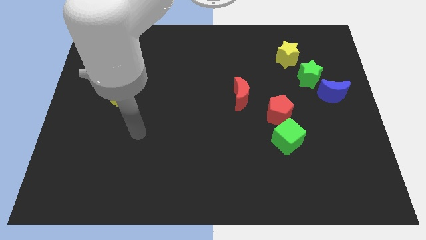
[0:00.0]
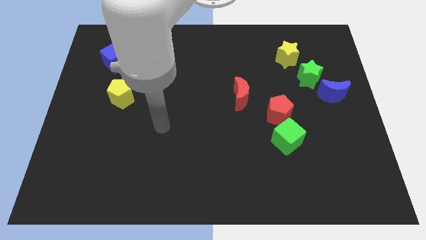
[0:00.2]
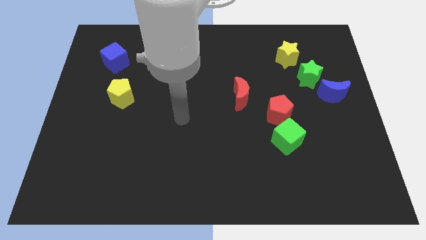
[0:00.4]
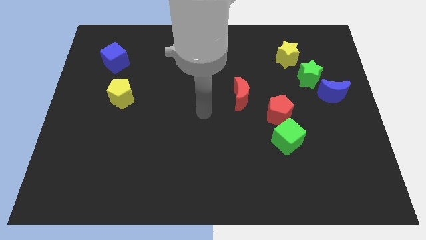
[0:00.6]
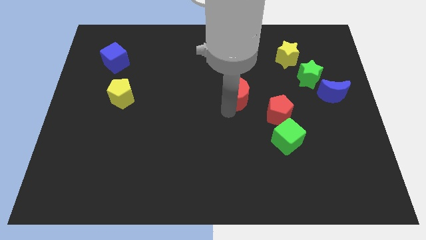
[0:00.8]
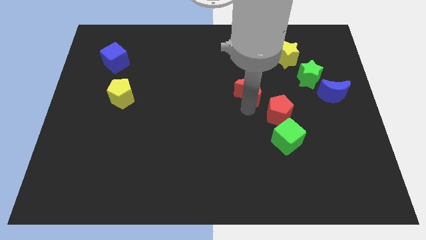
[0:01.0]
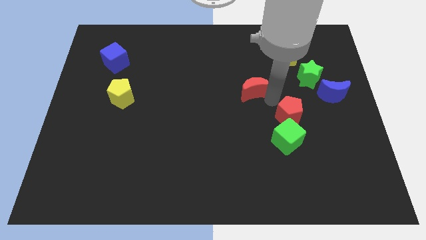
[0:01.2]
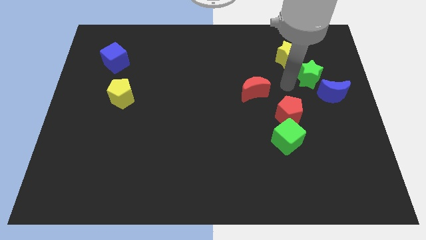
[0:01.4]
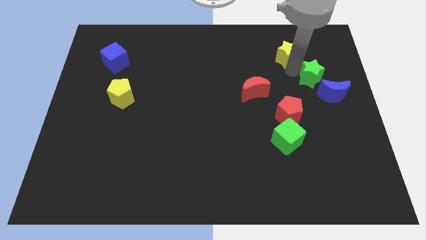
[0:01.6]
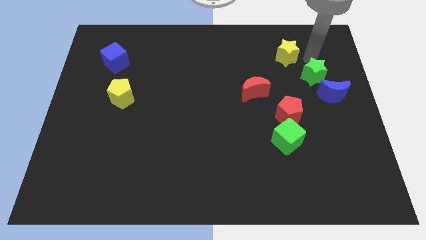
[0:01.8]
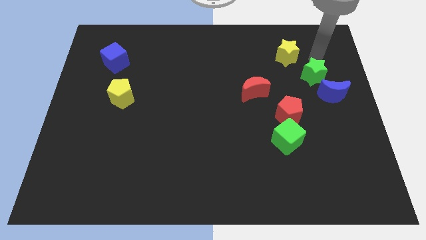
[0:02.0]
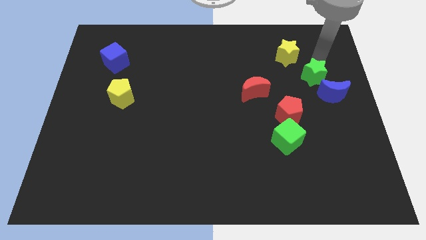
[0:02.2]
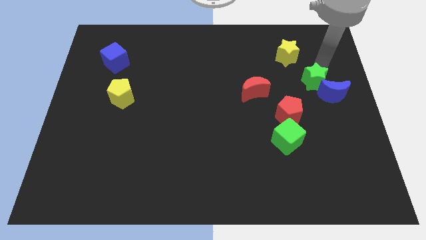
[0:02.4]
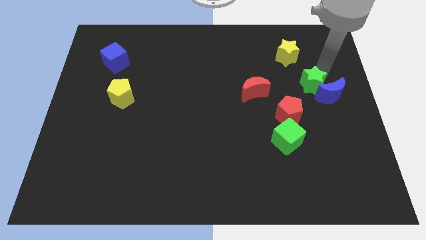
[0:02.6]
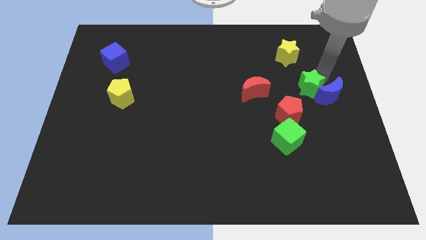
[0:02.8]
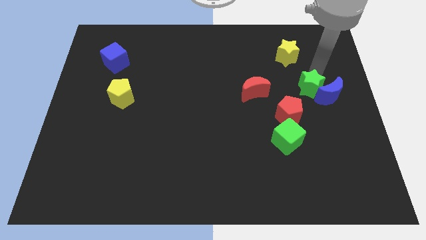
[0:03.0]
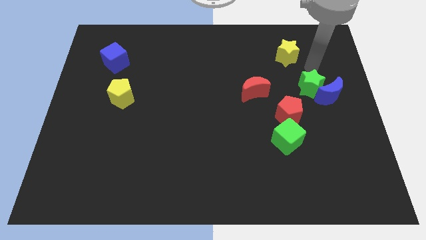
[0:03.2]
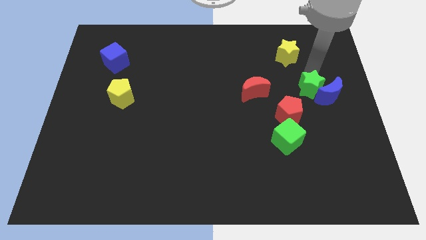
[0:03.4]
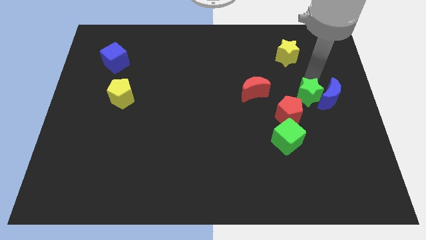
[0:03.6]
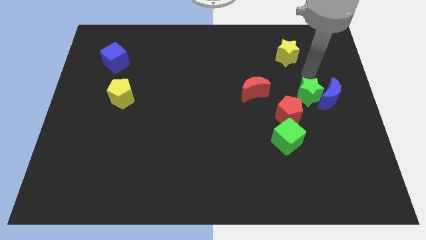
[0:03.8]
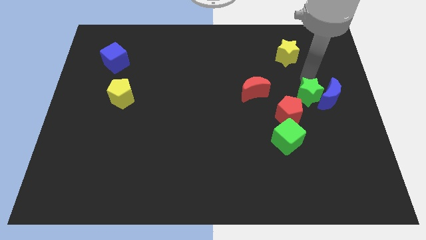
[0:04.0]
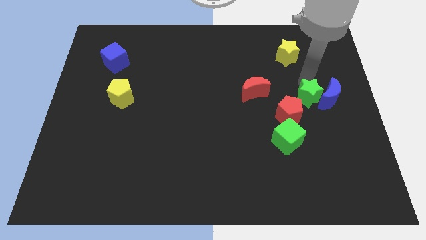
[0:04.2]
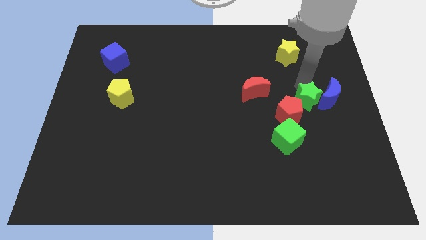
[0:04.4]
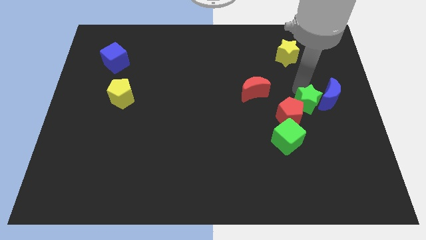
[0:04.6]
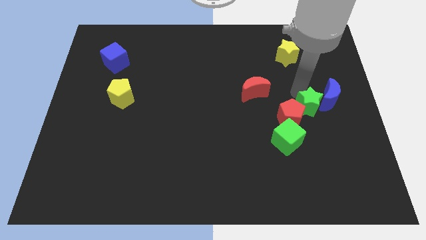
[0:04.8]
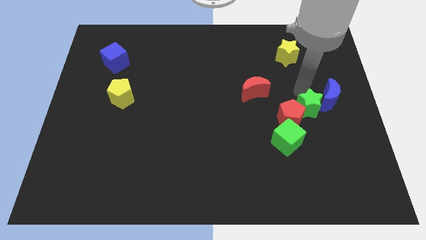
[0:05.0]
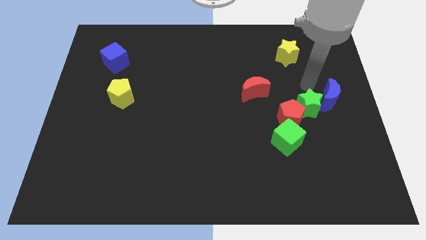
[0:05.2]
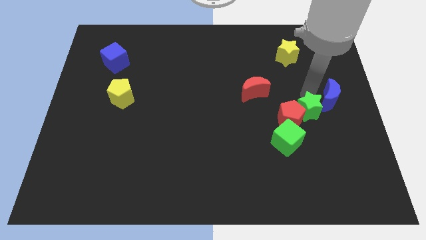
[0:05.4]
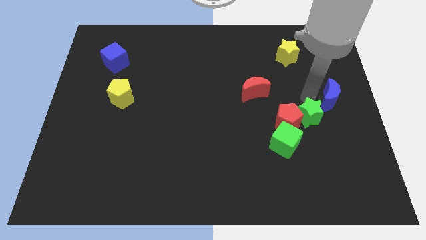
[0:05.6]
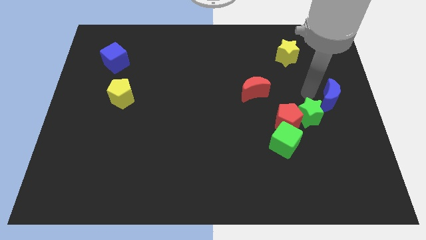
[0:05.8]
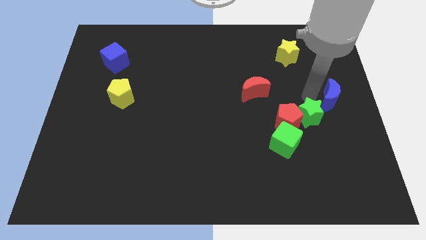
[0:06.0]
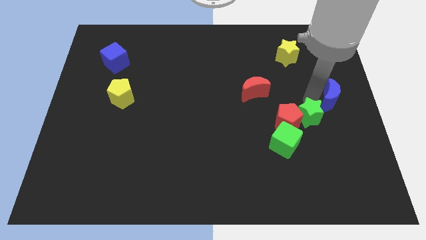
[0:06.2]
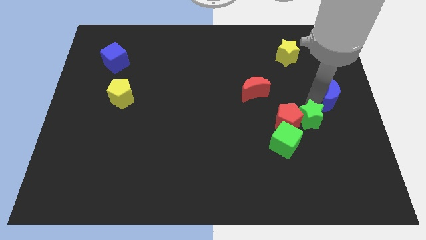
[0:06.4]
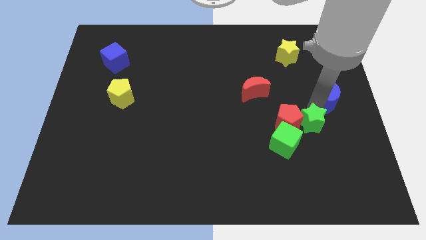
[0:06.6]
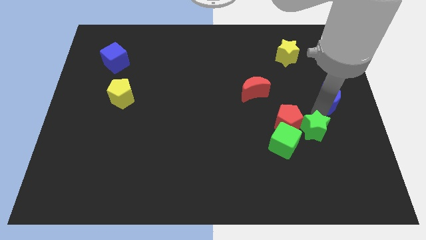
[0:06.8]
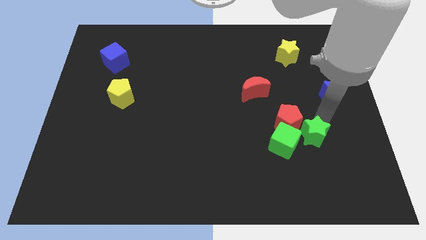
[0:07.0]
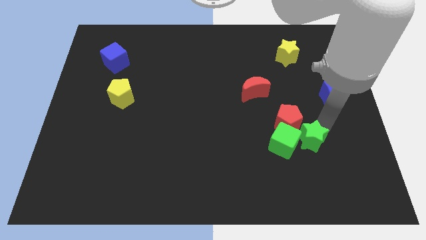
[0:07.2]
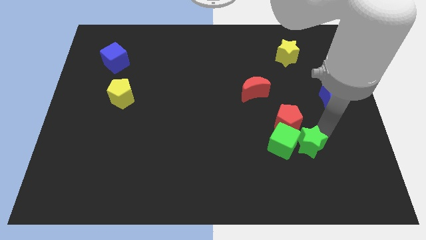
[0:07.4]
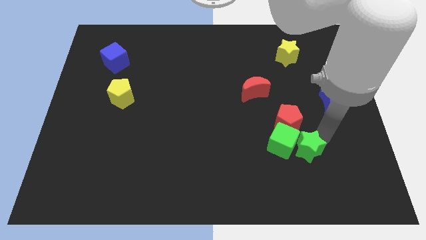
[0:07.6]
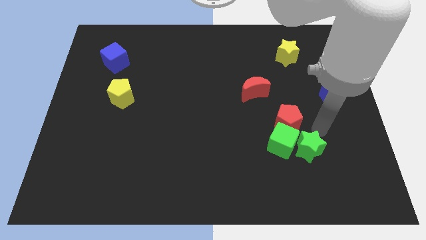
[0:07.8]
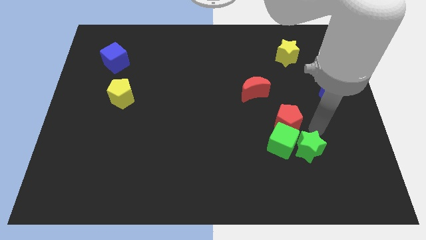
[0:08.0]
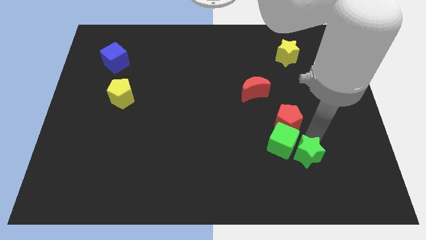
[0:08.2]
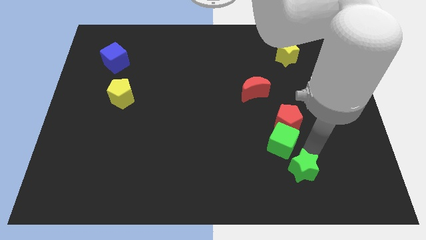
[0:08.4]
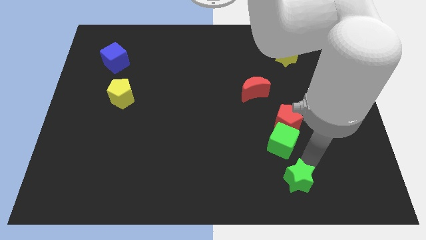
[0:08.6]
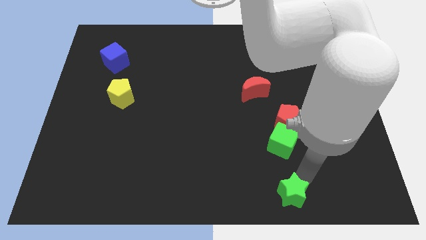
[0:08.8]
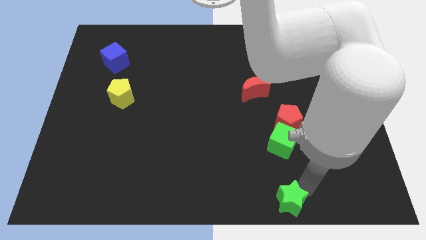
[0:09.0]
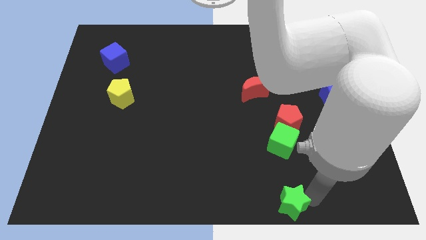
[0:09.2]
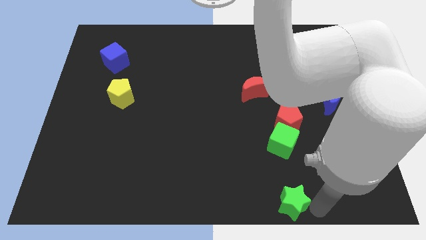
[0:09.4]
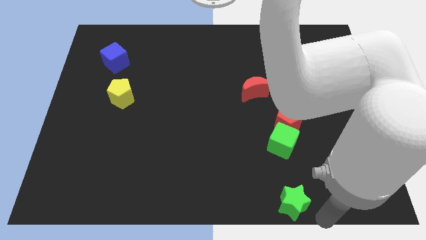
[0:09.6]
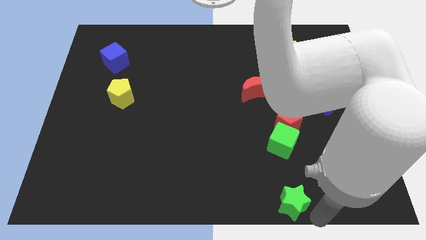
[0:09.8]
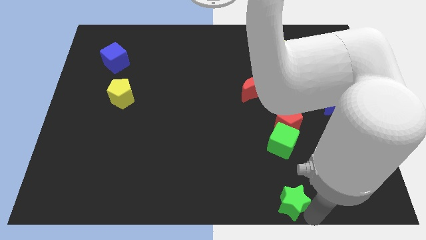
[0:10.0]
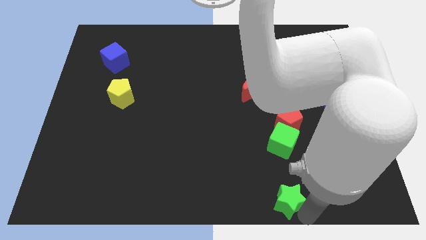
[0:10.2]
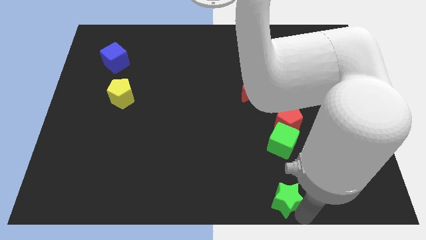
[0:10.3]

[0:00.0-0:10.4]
move the green star to the bottom side

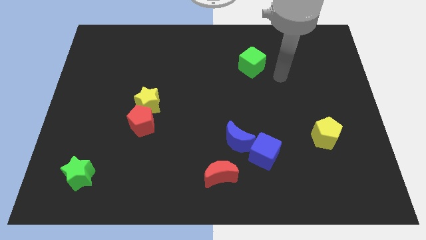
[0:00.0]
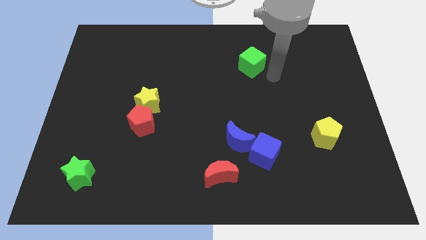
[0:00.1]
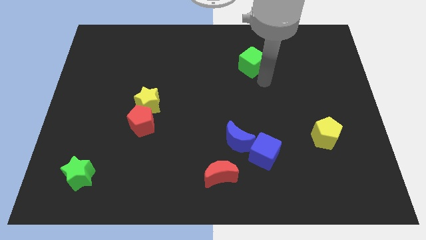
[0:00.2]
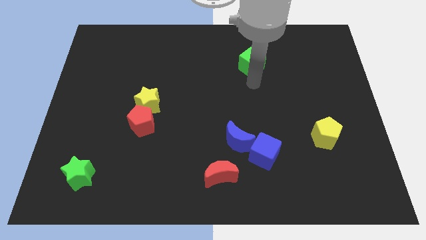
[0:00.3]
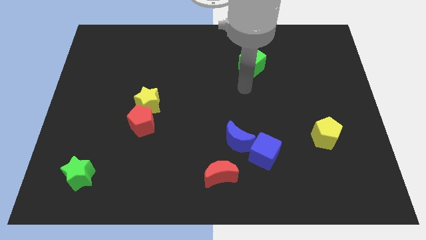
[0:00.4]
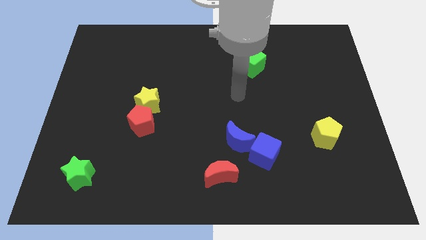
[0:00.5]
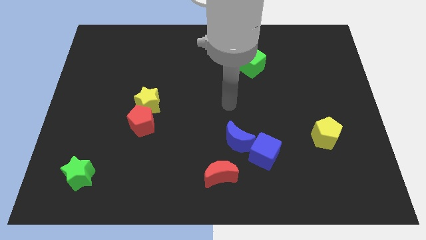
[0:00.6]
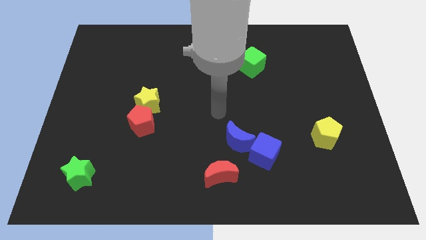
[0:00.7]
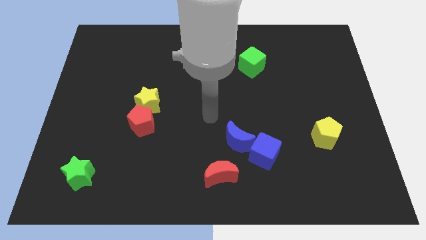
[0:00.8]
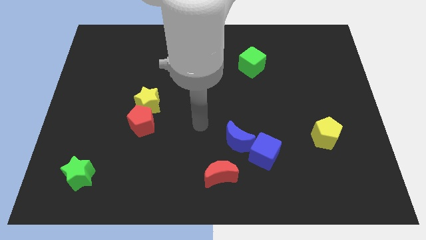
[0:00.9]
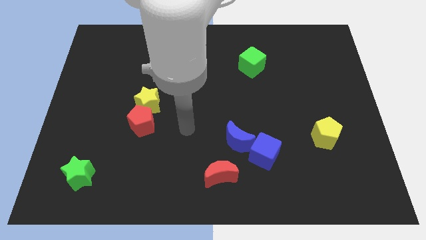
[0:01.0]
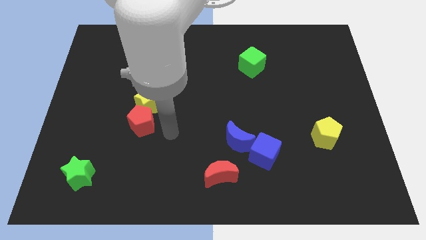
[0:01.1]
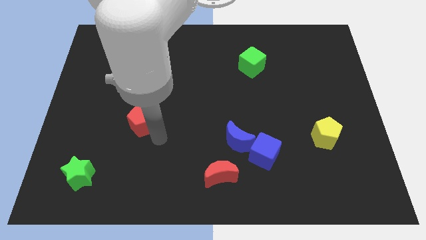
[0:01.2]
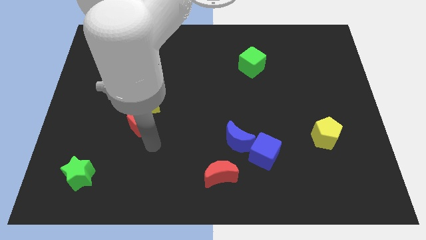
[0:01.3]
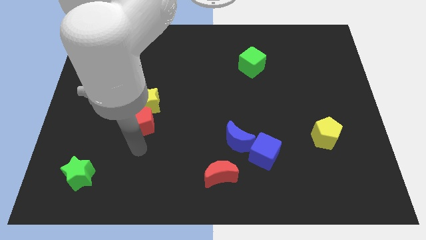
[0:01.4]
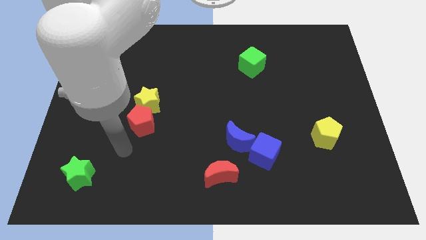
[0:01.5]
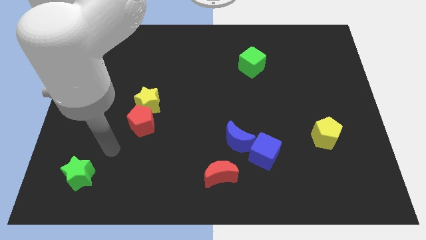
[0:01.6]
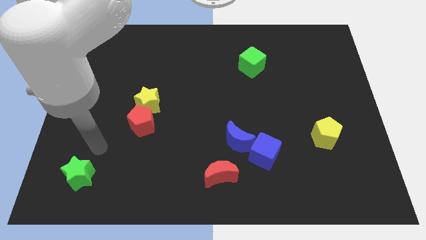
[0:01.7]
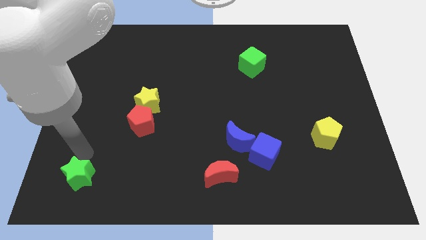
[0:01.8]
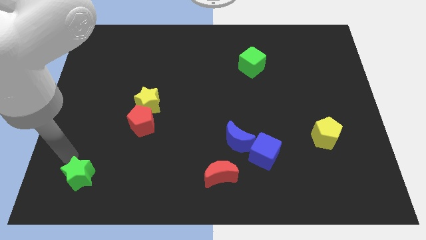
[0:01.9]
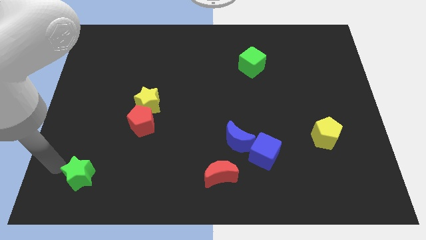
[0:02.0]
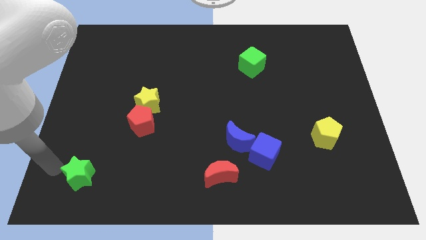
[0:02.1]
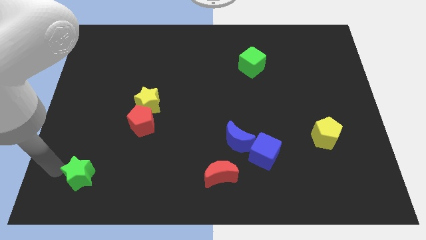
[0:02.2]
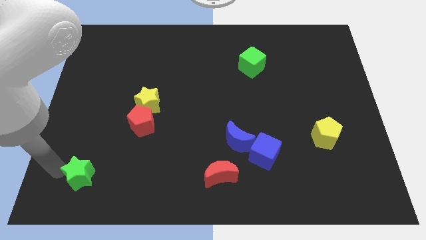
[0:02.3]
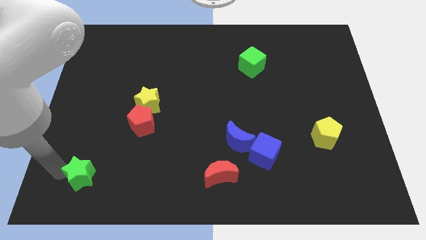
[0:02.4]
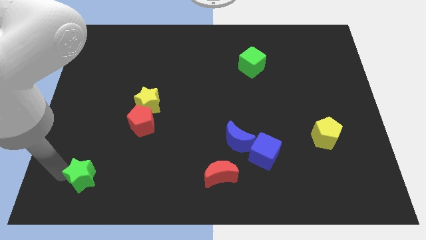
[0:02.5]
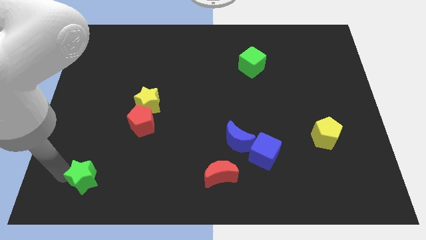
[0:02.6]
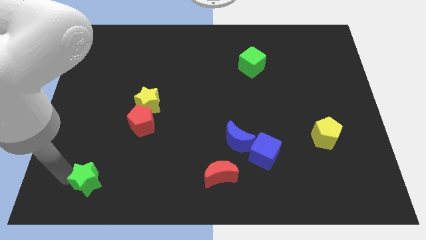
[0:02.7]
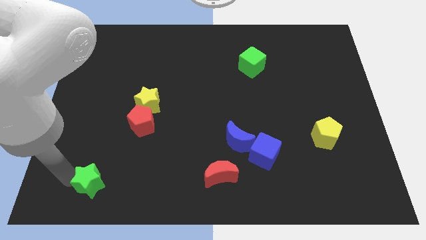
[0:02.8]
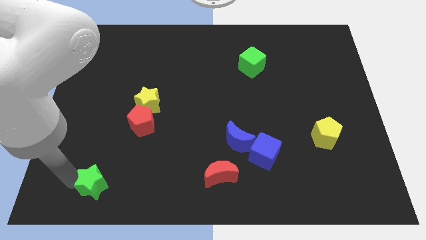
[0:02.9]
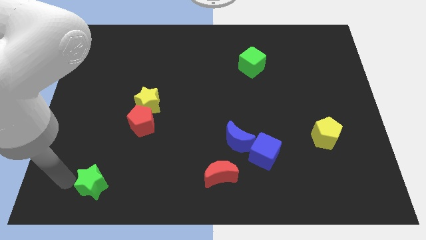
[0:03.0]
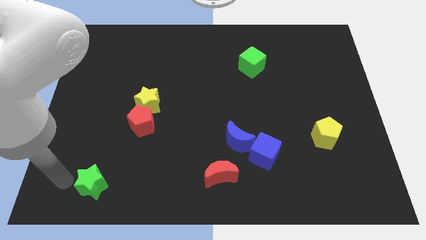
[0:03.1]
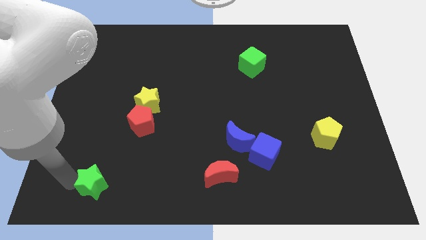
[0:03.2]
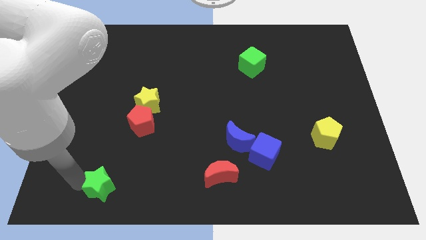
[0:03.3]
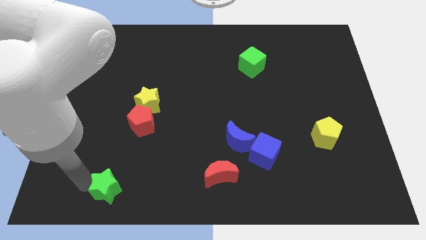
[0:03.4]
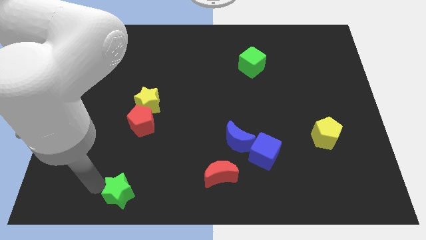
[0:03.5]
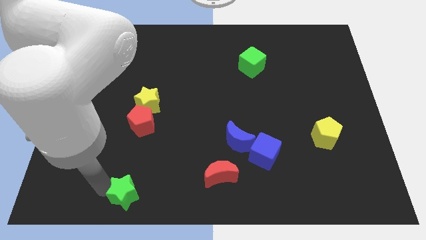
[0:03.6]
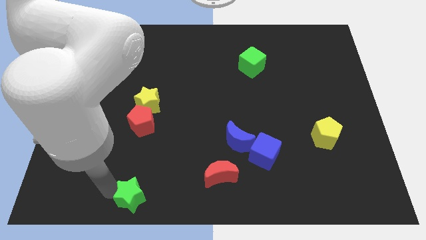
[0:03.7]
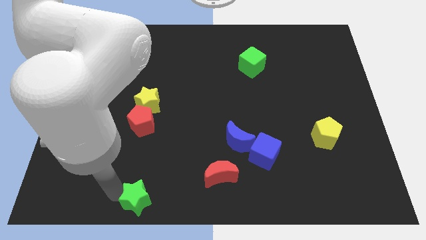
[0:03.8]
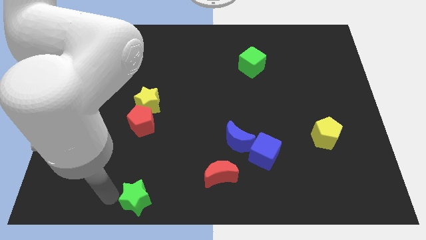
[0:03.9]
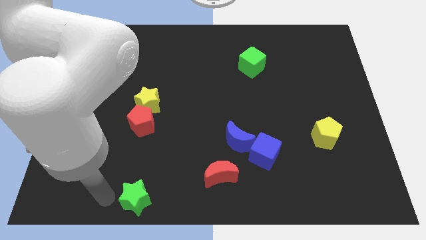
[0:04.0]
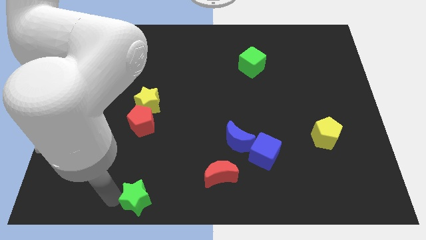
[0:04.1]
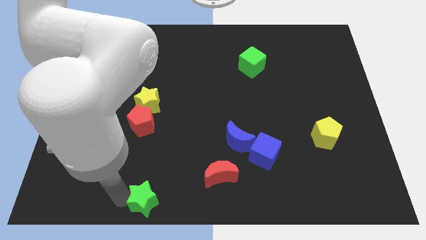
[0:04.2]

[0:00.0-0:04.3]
move the green star to the bottom
